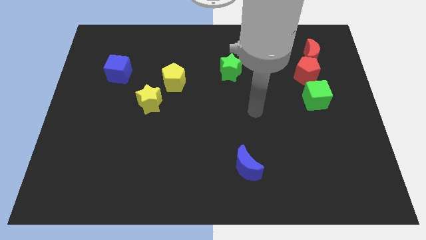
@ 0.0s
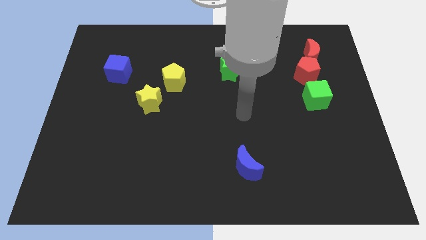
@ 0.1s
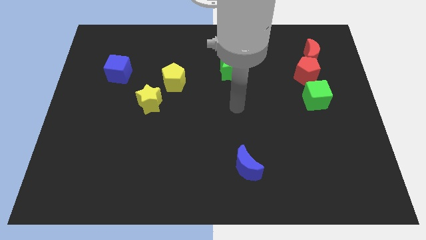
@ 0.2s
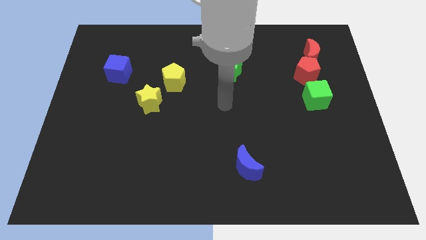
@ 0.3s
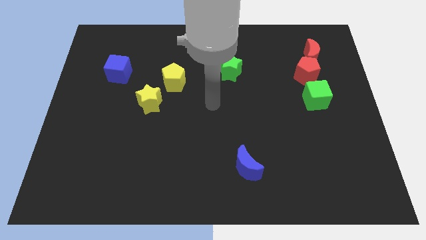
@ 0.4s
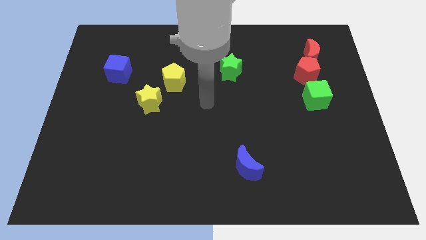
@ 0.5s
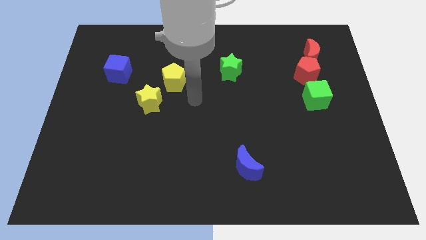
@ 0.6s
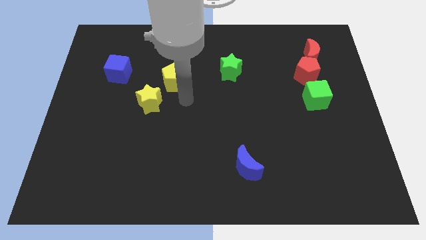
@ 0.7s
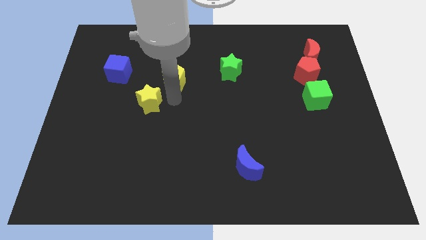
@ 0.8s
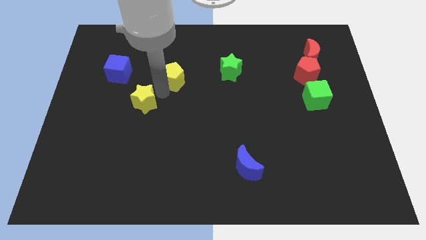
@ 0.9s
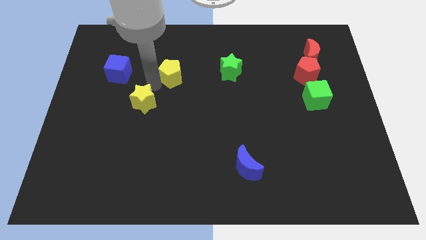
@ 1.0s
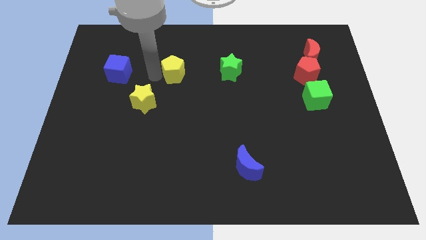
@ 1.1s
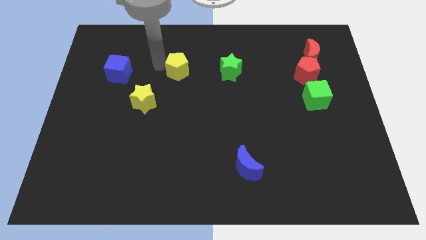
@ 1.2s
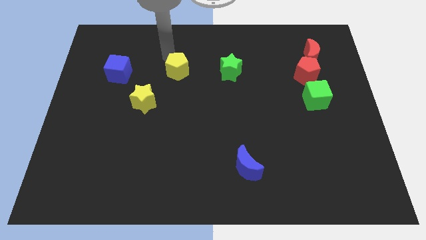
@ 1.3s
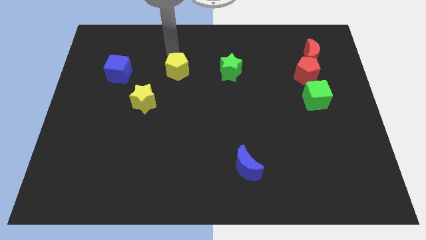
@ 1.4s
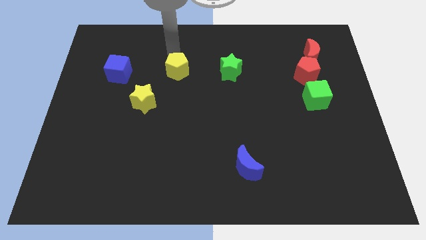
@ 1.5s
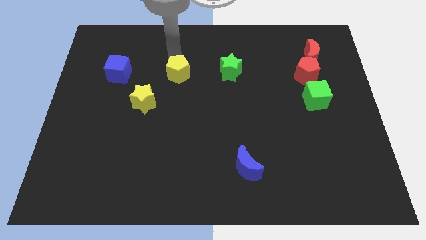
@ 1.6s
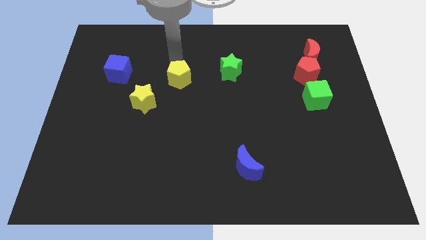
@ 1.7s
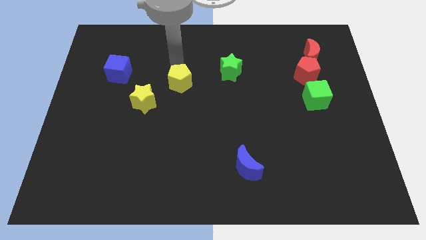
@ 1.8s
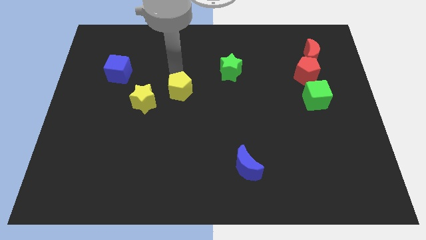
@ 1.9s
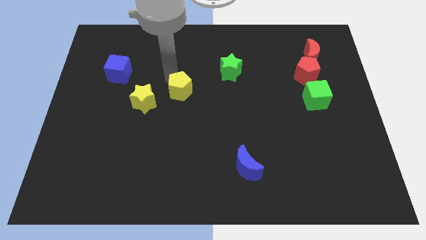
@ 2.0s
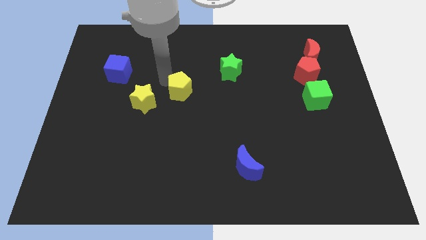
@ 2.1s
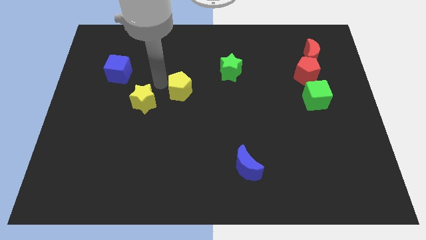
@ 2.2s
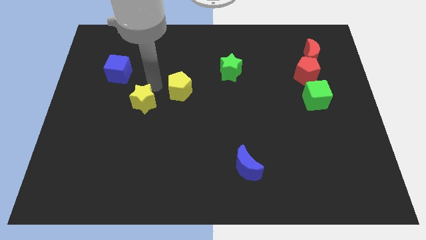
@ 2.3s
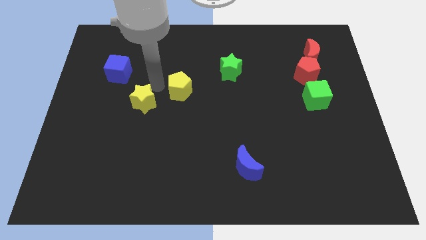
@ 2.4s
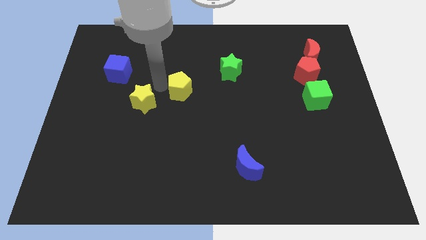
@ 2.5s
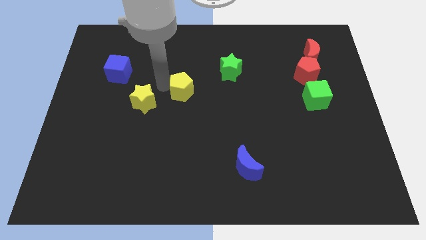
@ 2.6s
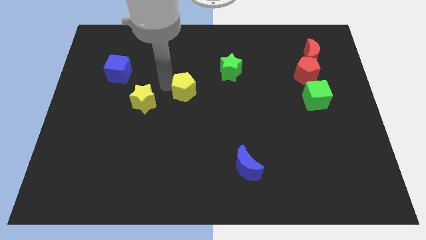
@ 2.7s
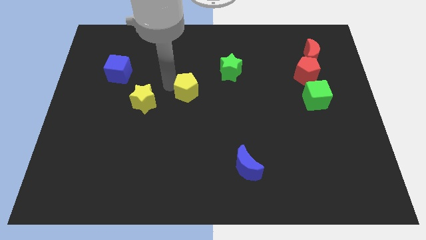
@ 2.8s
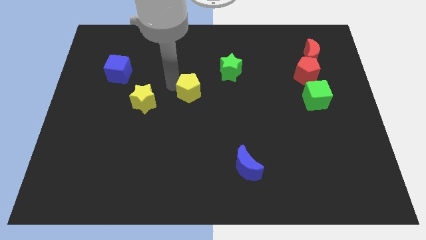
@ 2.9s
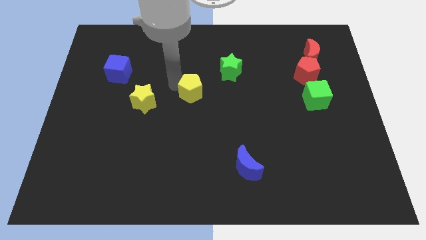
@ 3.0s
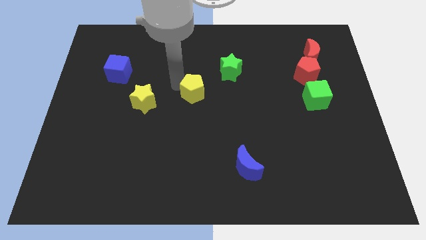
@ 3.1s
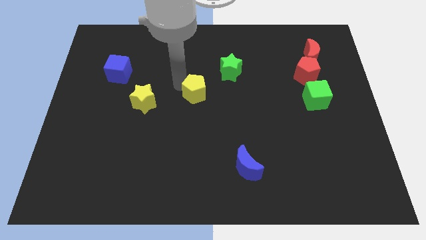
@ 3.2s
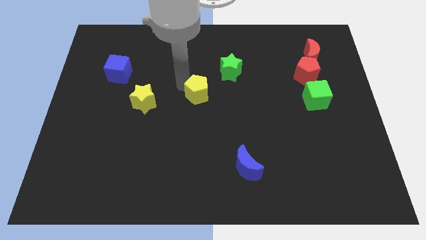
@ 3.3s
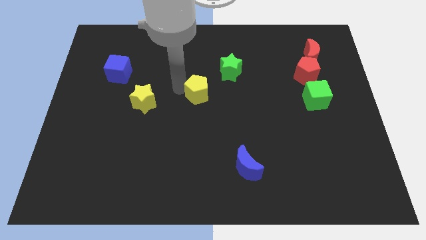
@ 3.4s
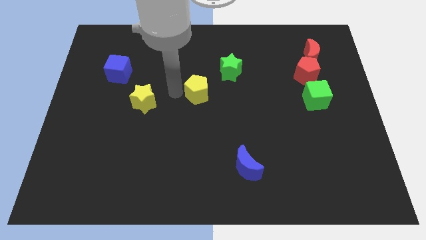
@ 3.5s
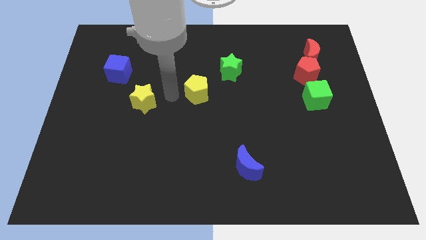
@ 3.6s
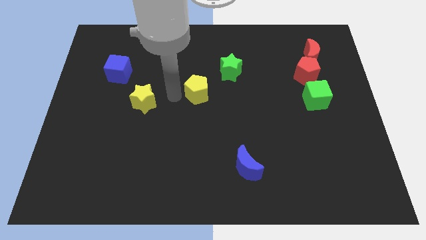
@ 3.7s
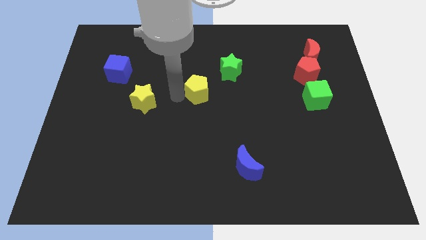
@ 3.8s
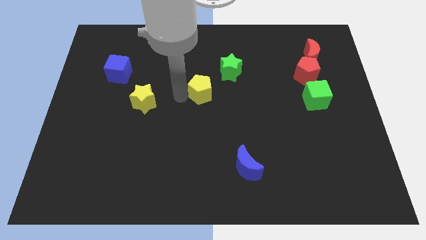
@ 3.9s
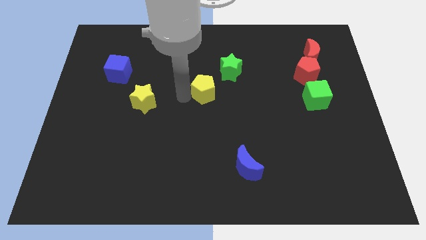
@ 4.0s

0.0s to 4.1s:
move the yellow pentagon to the right a little bit

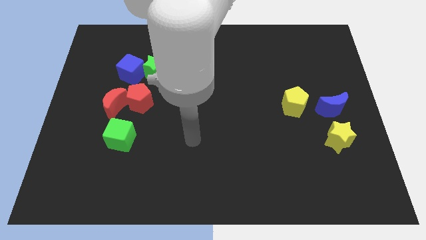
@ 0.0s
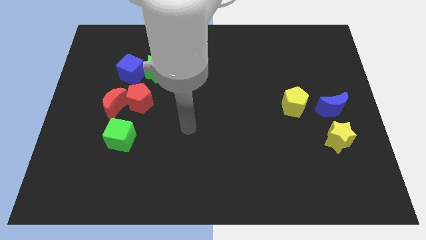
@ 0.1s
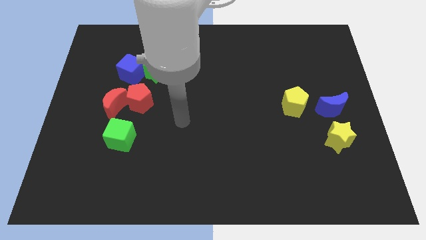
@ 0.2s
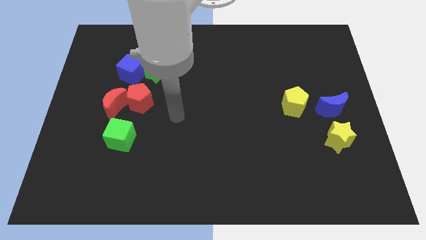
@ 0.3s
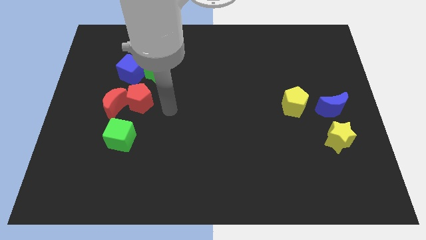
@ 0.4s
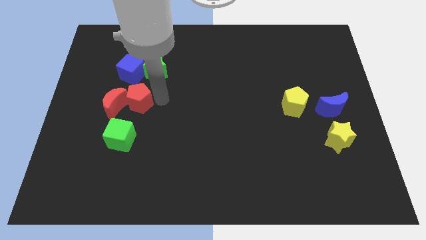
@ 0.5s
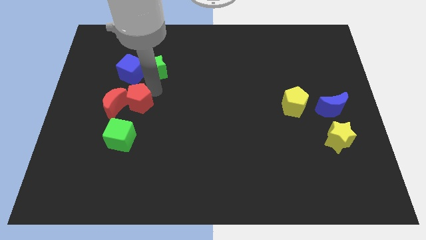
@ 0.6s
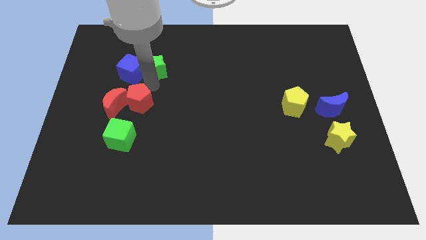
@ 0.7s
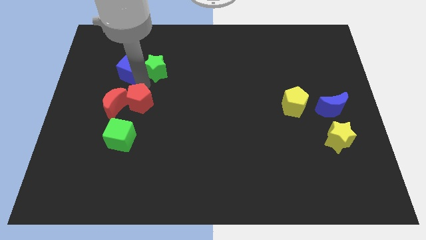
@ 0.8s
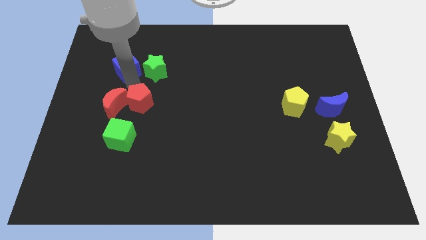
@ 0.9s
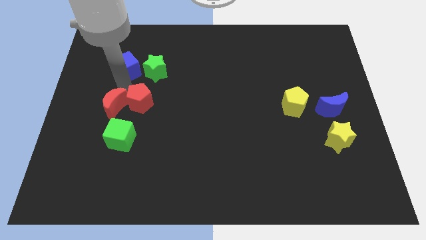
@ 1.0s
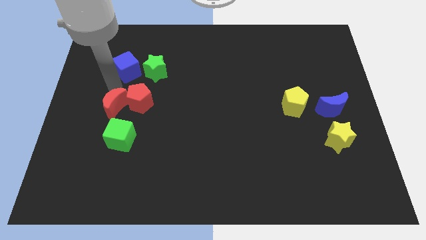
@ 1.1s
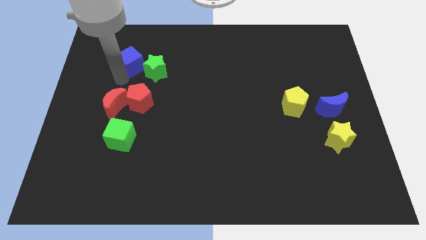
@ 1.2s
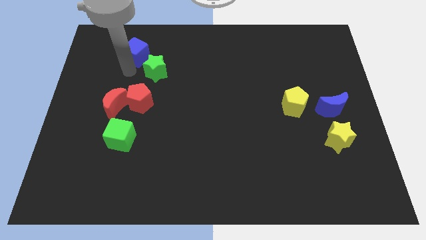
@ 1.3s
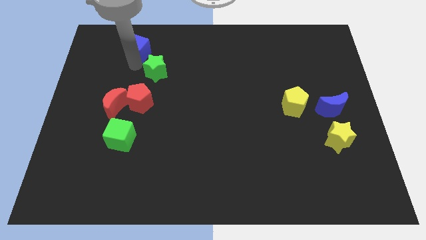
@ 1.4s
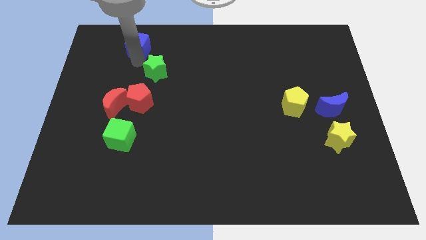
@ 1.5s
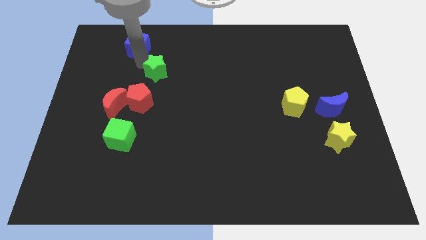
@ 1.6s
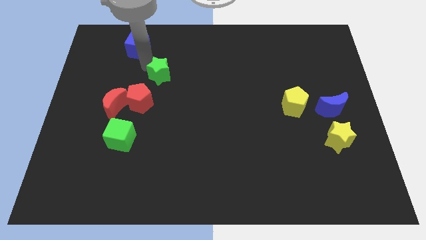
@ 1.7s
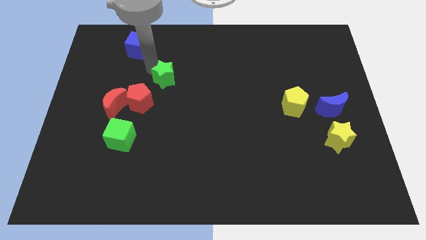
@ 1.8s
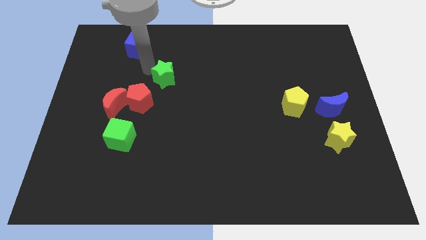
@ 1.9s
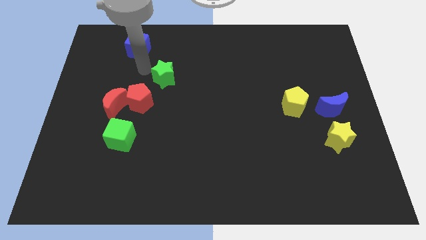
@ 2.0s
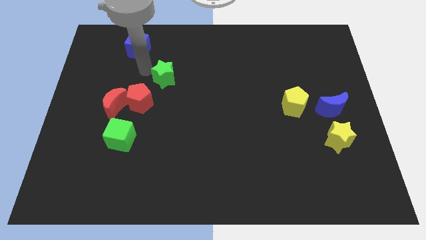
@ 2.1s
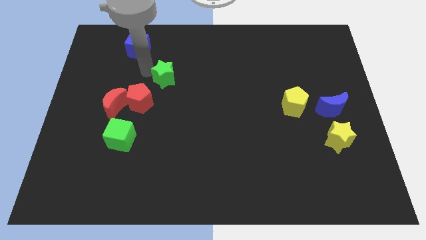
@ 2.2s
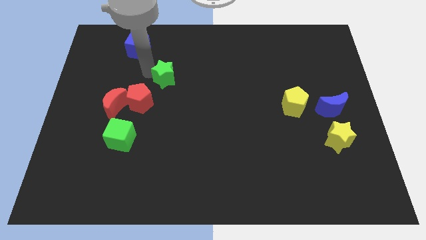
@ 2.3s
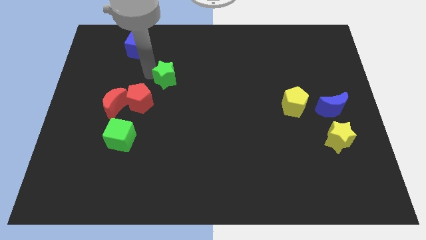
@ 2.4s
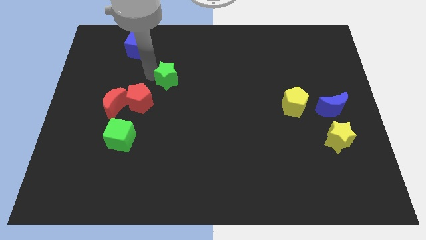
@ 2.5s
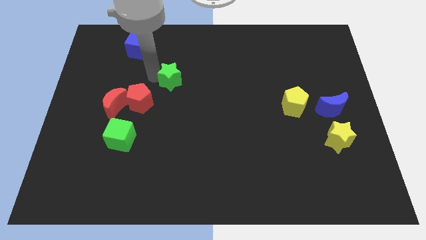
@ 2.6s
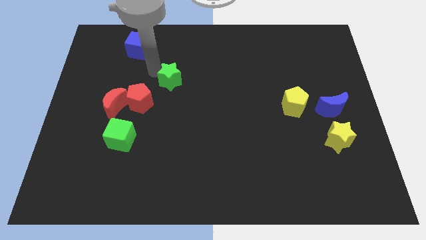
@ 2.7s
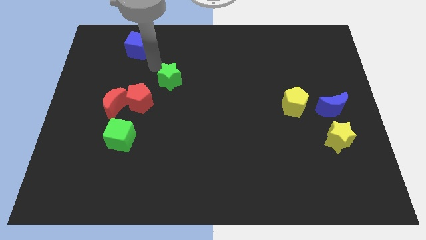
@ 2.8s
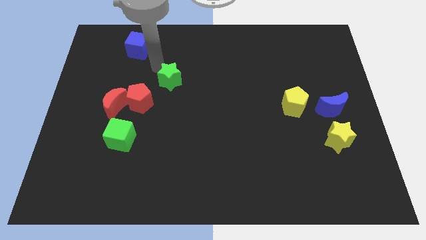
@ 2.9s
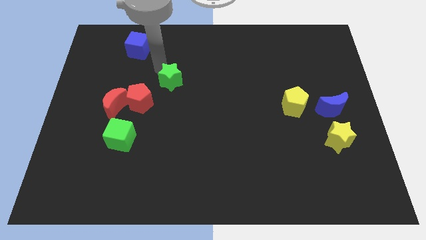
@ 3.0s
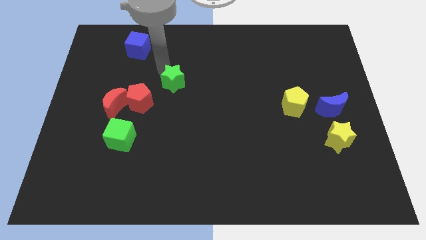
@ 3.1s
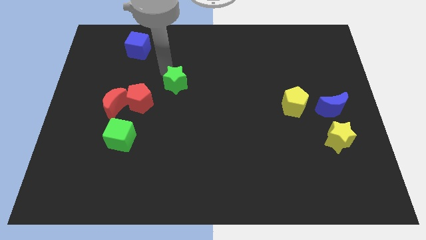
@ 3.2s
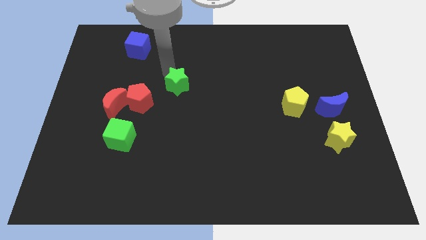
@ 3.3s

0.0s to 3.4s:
move the green star slightly down and then right

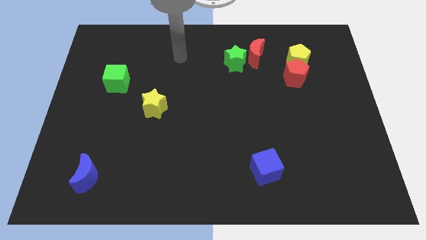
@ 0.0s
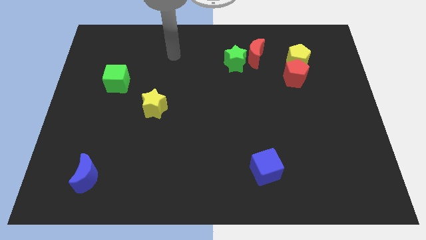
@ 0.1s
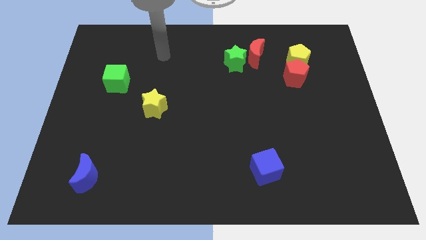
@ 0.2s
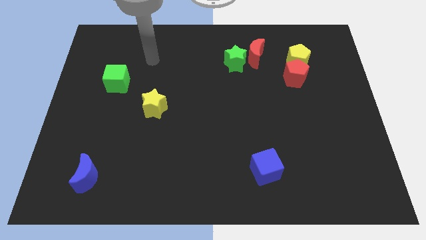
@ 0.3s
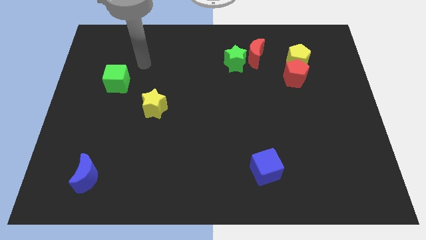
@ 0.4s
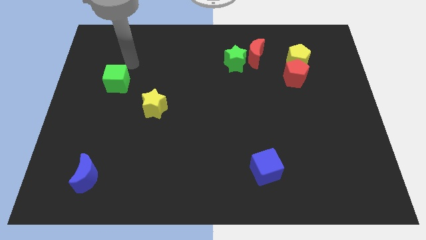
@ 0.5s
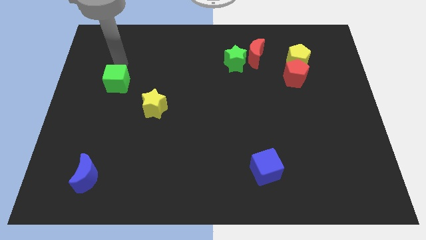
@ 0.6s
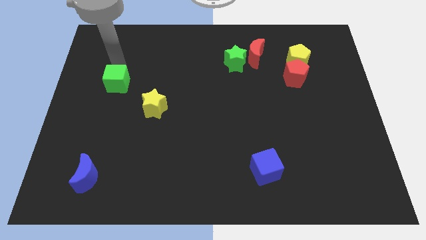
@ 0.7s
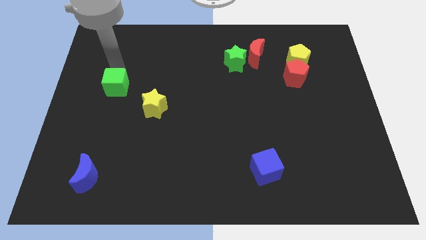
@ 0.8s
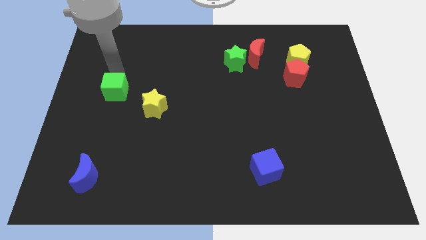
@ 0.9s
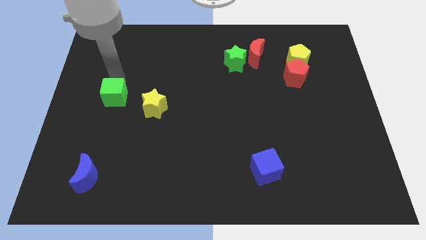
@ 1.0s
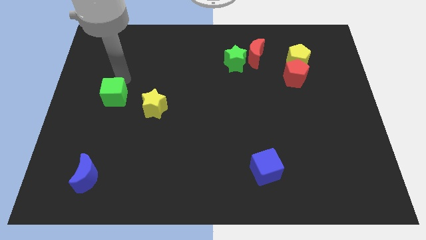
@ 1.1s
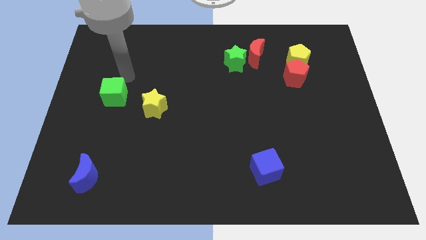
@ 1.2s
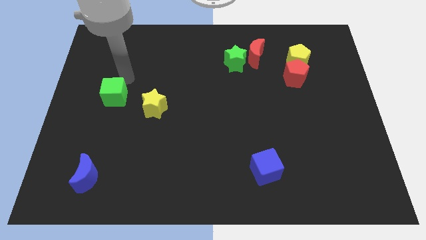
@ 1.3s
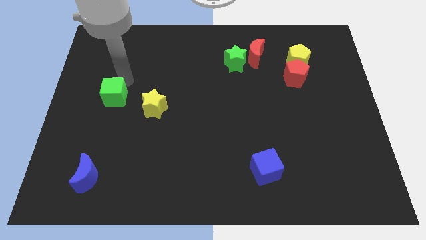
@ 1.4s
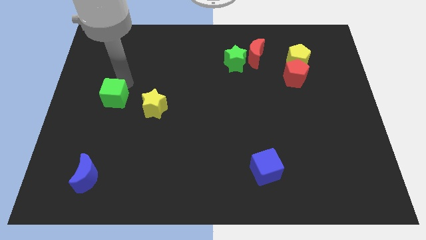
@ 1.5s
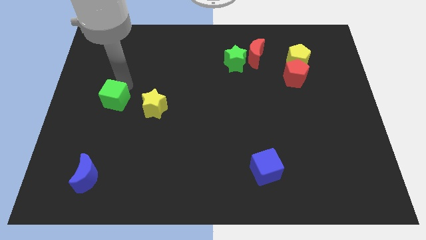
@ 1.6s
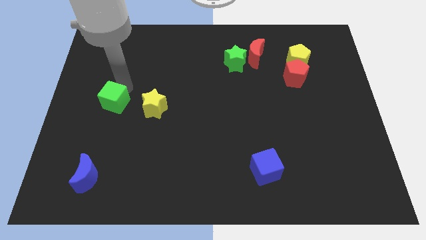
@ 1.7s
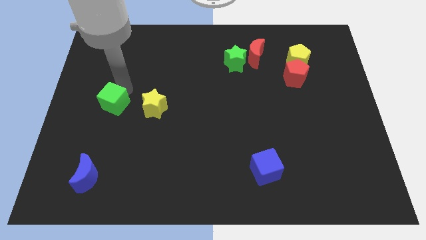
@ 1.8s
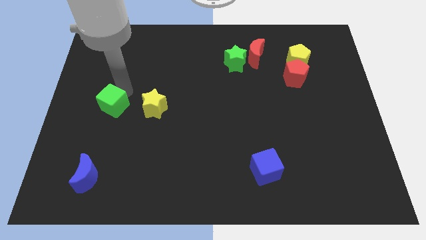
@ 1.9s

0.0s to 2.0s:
slide the green cube down a little
